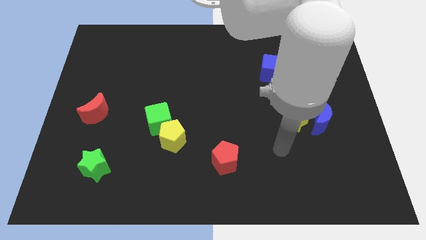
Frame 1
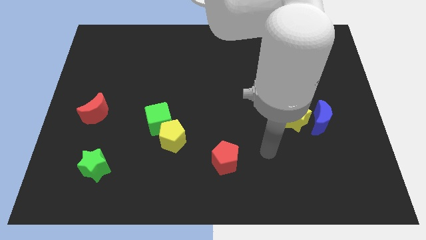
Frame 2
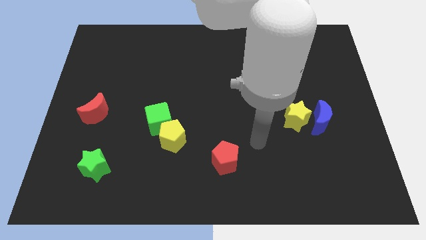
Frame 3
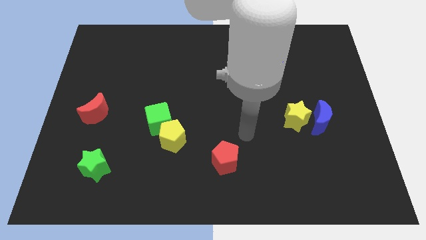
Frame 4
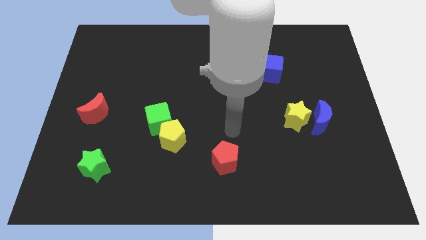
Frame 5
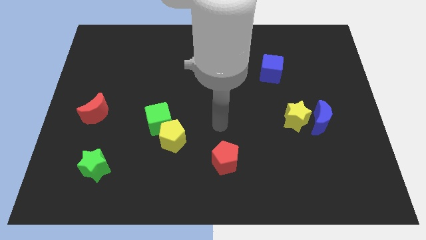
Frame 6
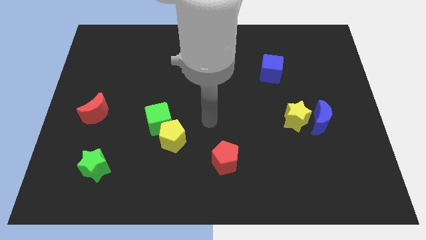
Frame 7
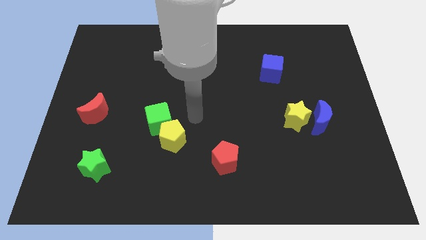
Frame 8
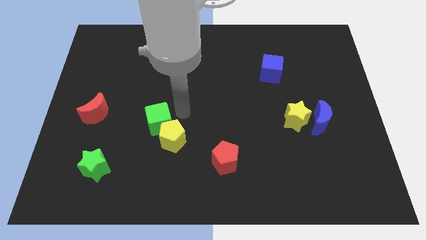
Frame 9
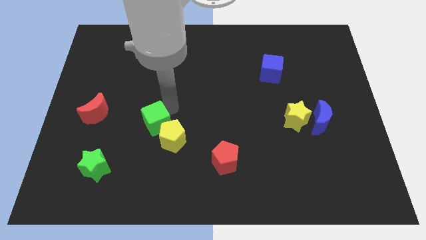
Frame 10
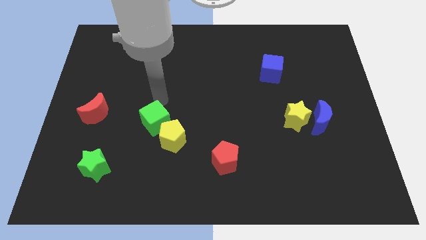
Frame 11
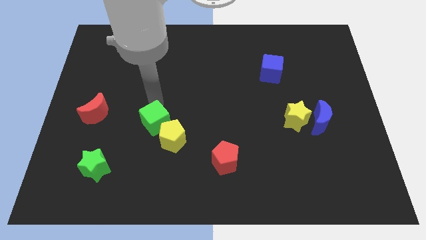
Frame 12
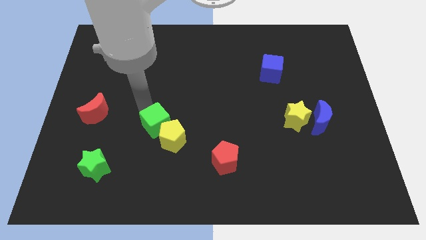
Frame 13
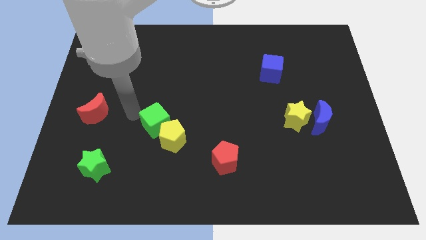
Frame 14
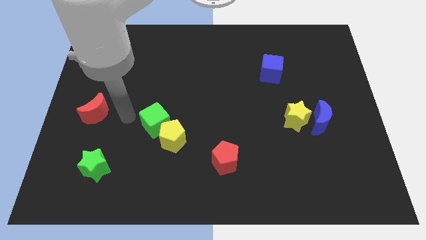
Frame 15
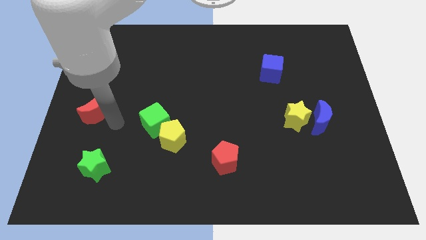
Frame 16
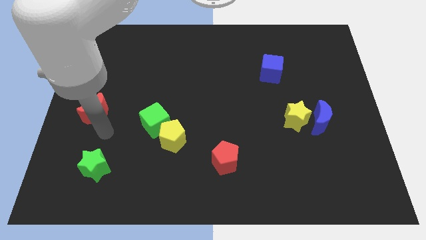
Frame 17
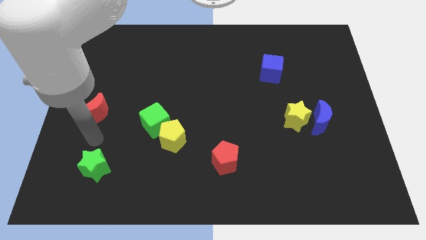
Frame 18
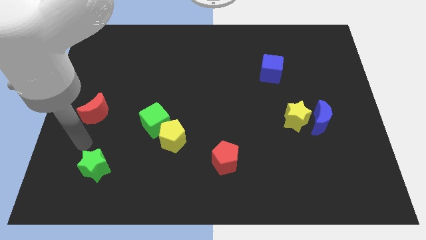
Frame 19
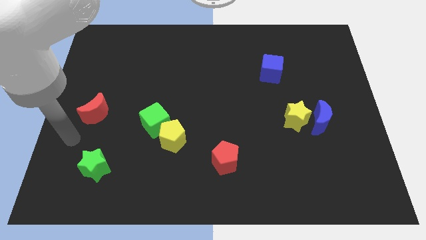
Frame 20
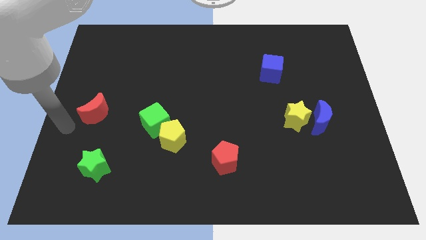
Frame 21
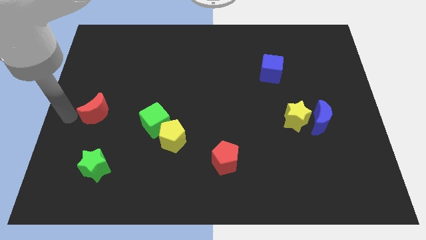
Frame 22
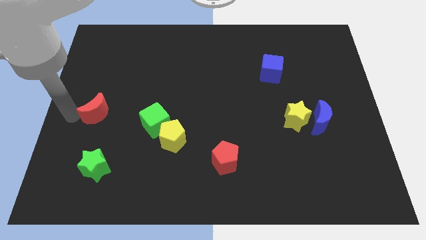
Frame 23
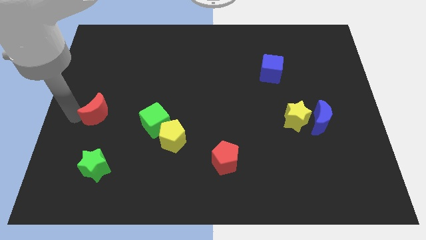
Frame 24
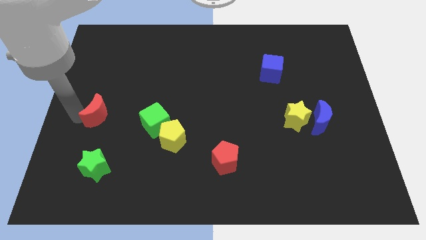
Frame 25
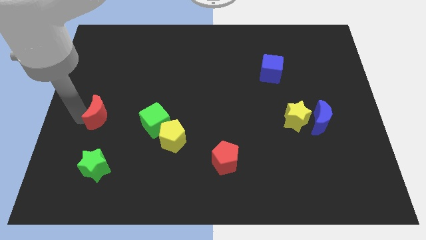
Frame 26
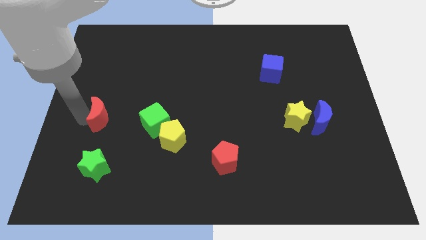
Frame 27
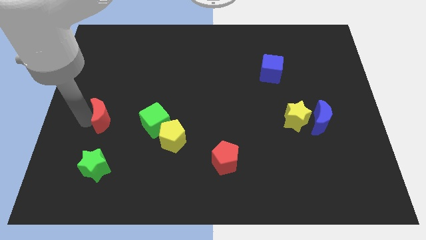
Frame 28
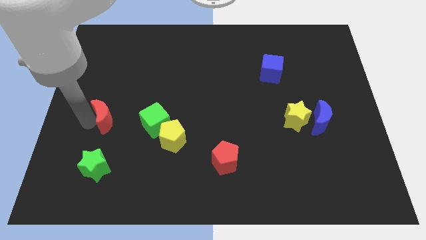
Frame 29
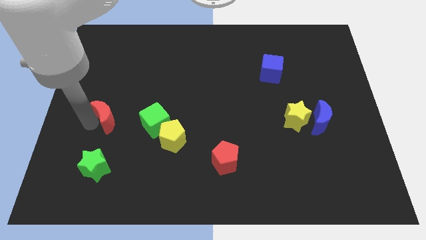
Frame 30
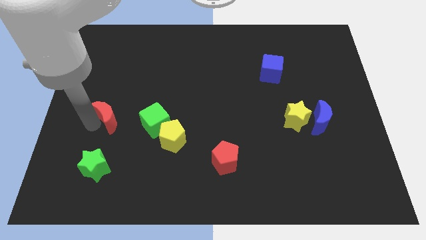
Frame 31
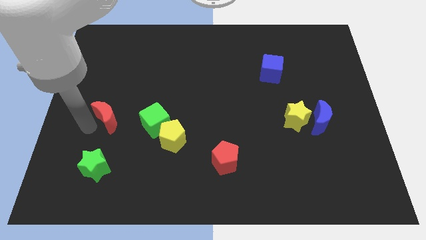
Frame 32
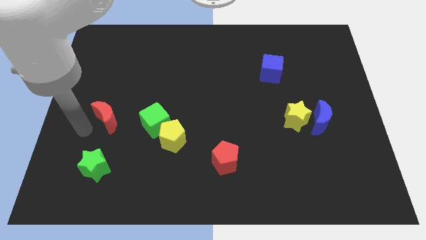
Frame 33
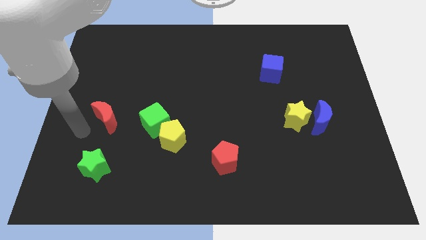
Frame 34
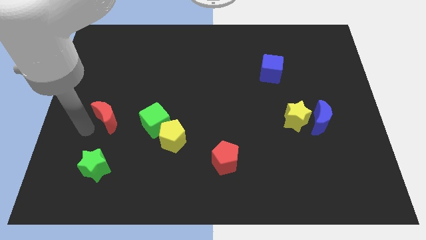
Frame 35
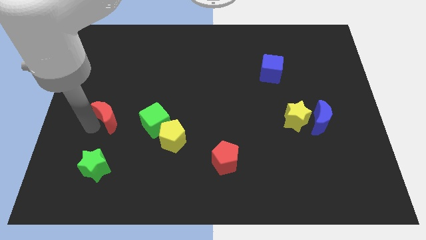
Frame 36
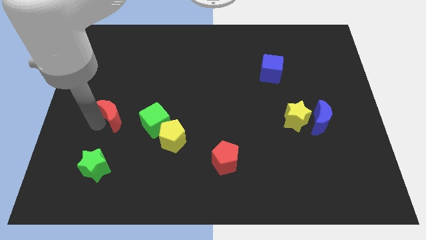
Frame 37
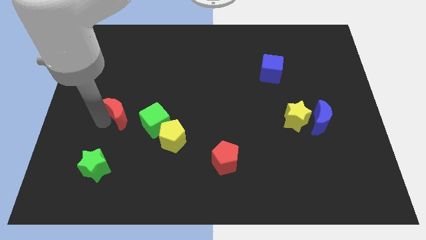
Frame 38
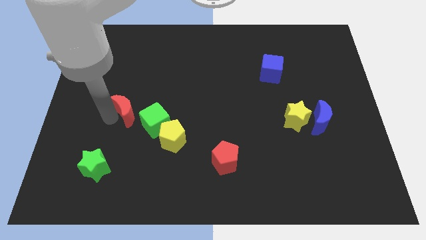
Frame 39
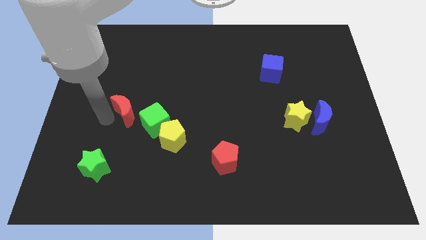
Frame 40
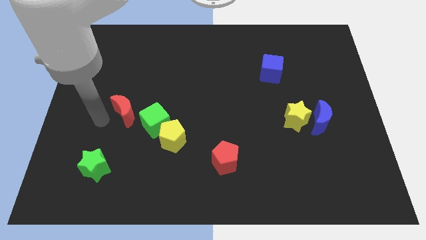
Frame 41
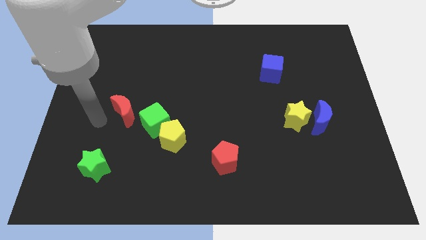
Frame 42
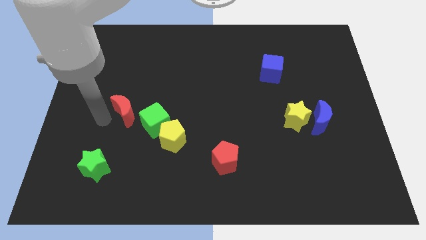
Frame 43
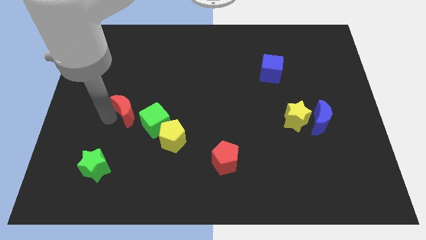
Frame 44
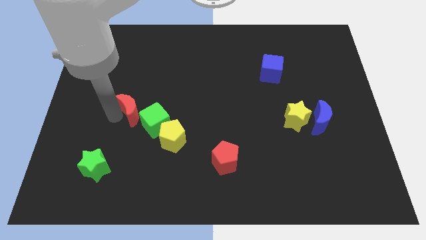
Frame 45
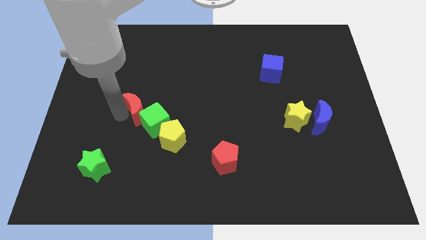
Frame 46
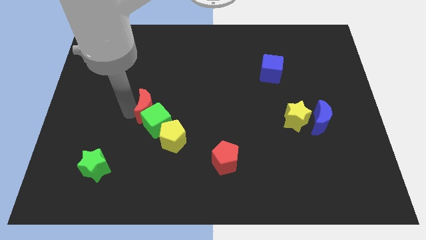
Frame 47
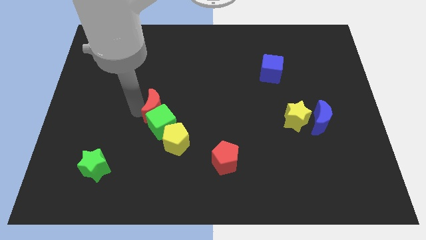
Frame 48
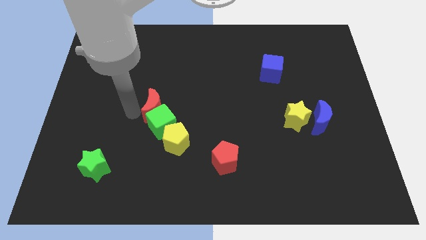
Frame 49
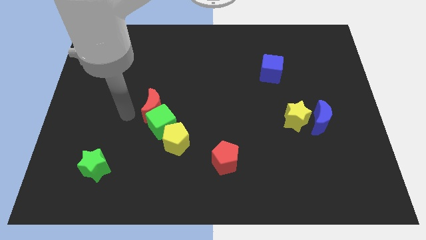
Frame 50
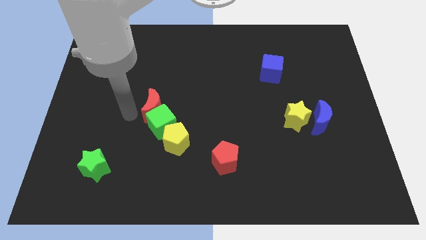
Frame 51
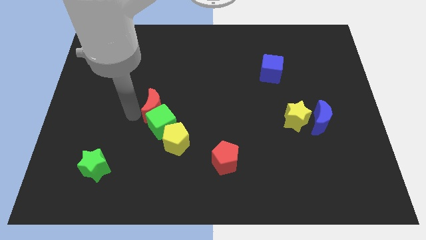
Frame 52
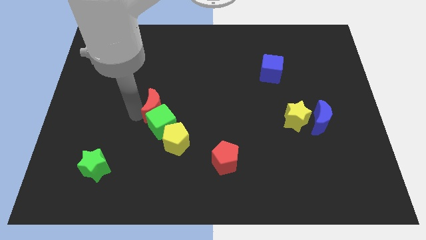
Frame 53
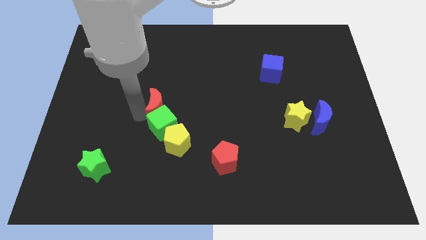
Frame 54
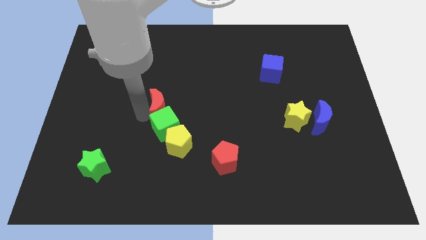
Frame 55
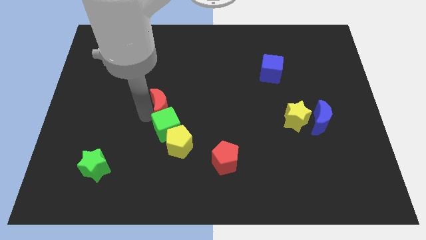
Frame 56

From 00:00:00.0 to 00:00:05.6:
push the red moon to the top side of the yellow pentagon

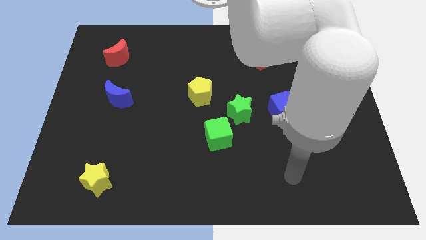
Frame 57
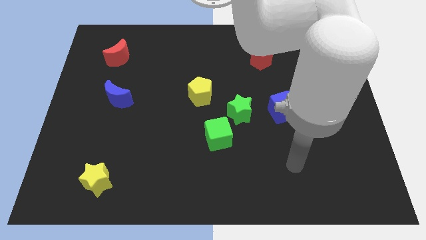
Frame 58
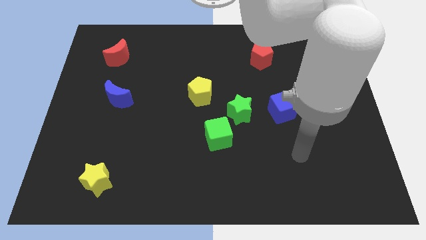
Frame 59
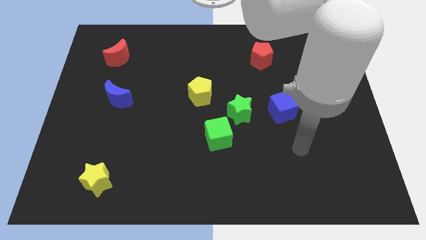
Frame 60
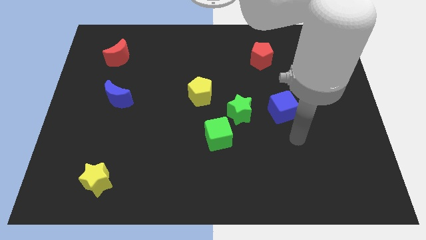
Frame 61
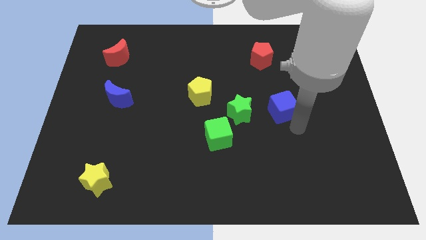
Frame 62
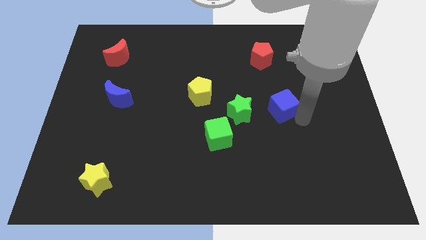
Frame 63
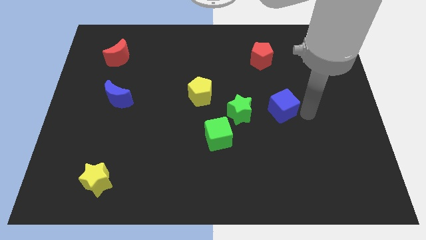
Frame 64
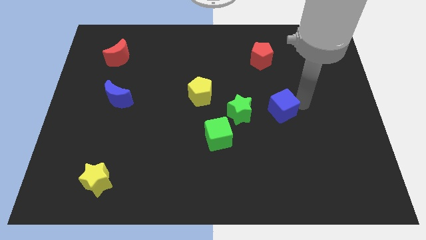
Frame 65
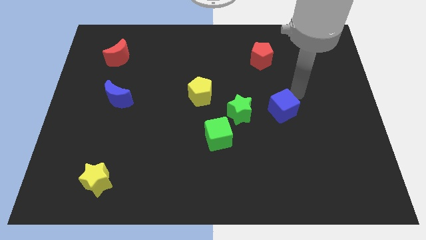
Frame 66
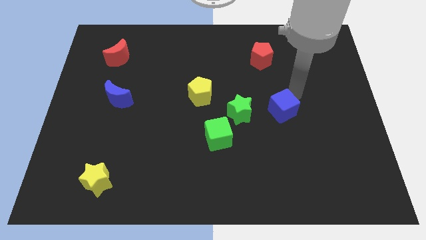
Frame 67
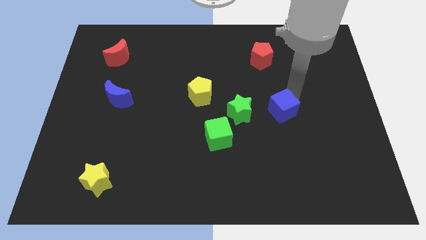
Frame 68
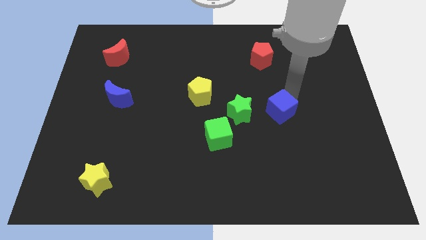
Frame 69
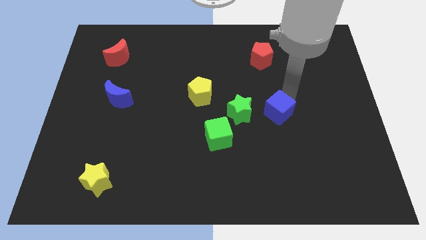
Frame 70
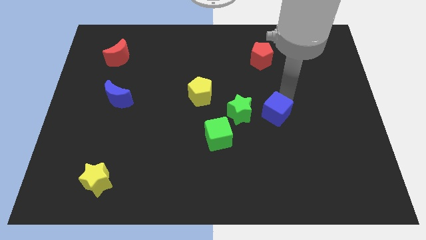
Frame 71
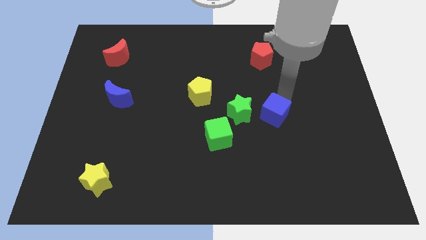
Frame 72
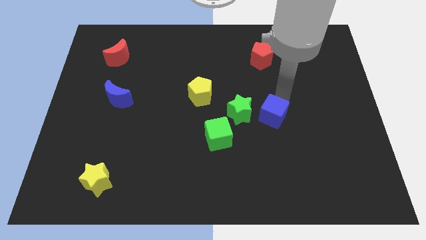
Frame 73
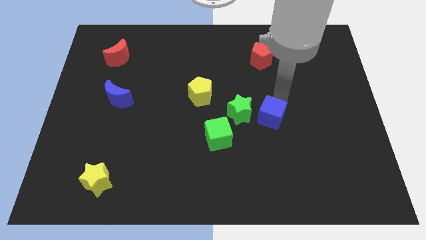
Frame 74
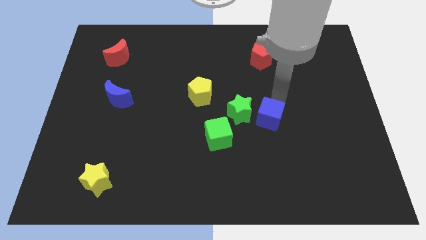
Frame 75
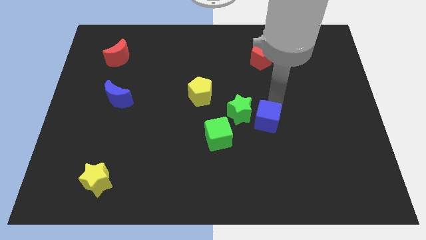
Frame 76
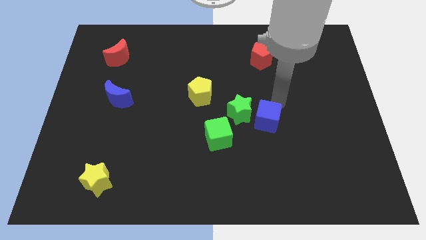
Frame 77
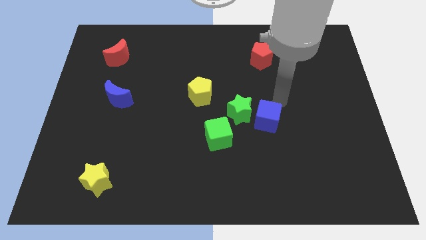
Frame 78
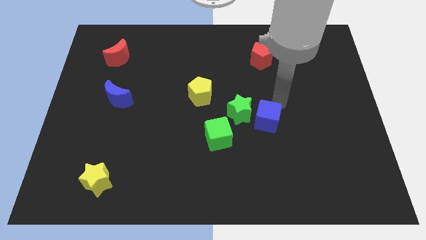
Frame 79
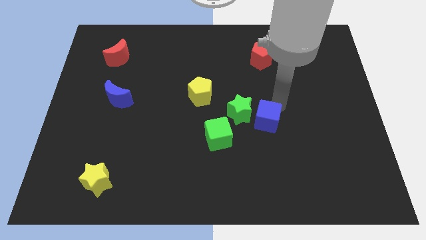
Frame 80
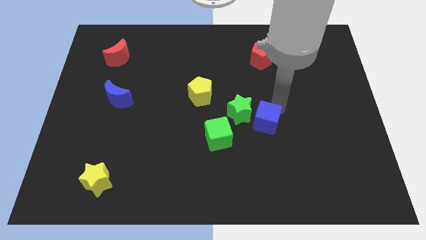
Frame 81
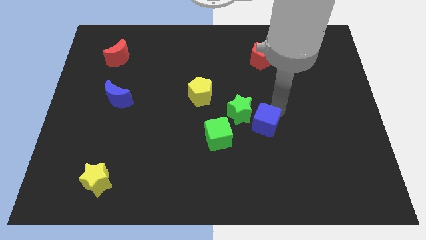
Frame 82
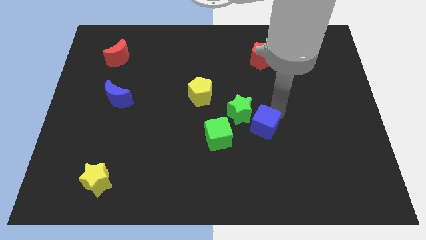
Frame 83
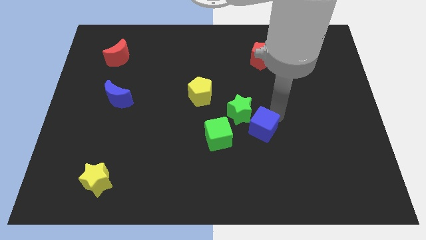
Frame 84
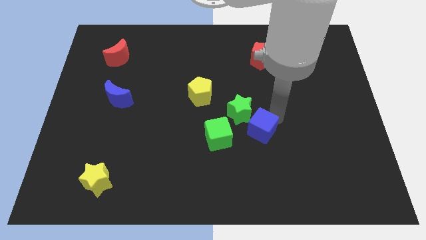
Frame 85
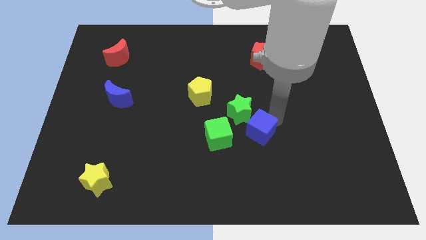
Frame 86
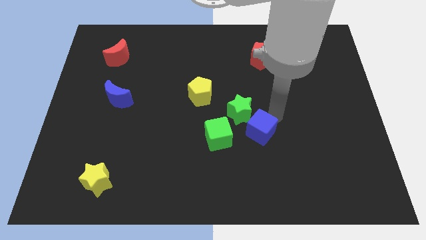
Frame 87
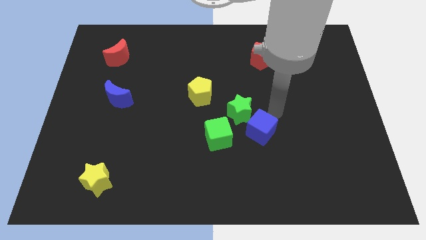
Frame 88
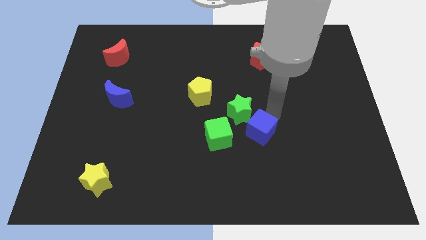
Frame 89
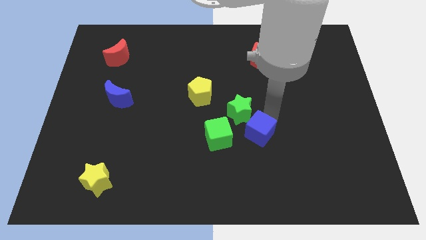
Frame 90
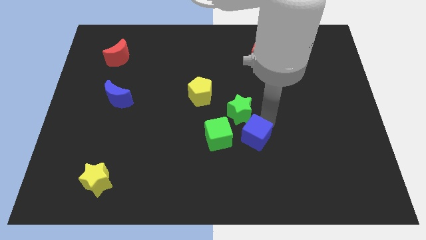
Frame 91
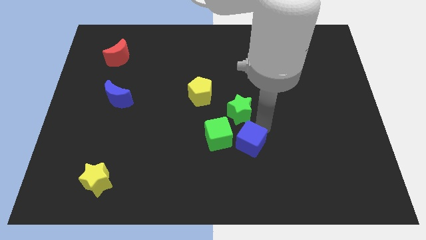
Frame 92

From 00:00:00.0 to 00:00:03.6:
move the blue cube diagonally down and to the right of the green cube
